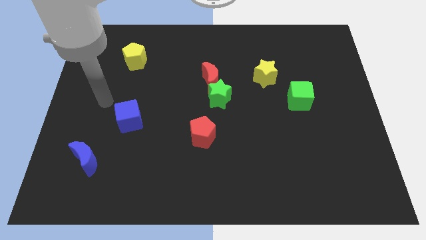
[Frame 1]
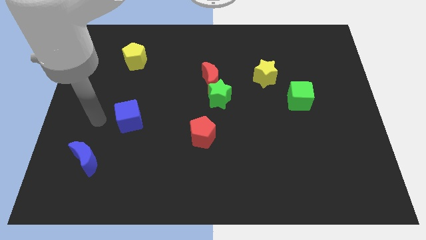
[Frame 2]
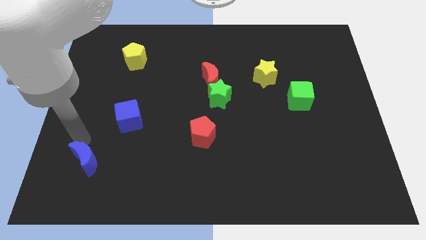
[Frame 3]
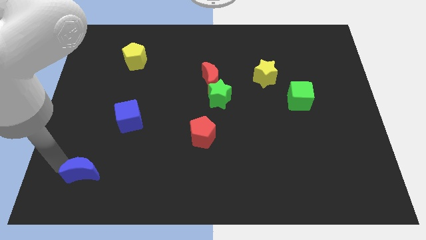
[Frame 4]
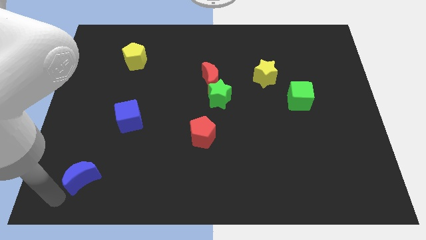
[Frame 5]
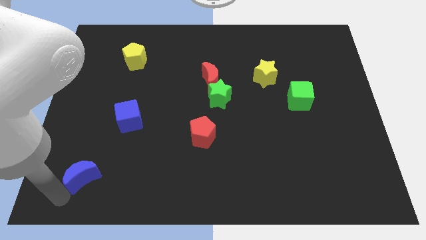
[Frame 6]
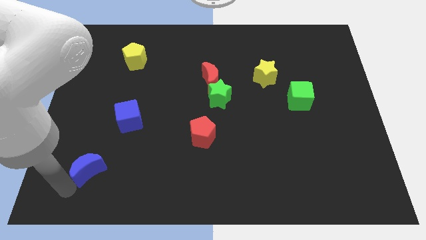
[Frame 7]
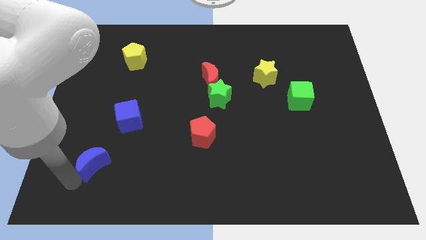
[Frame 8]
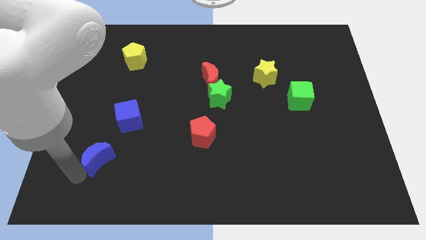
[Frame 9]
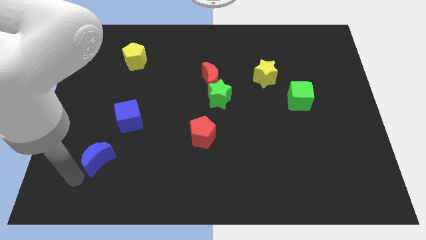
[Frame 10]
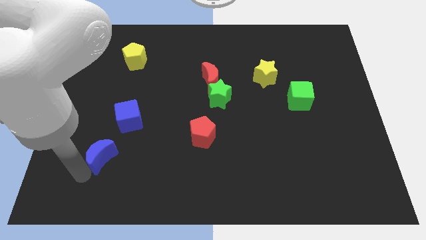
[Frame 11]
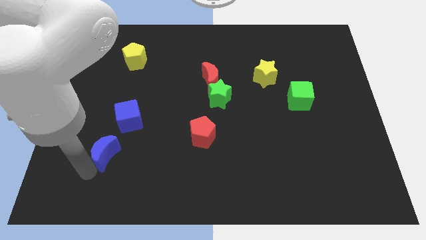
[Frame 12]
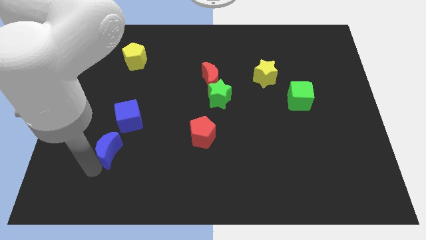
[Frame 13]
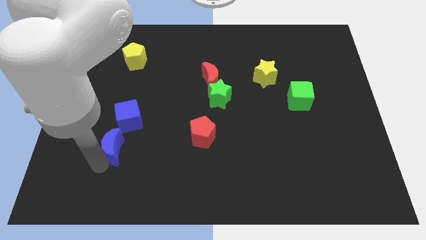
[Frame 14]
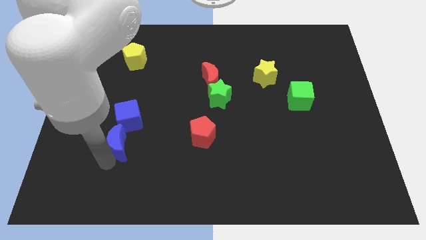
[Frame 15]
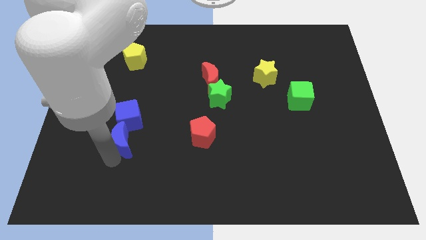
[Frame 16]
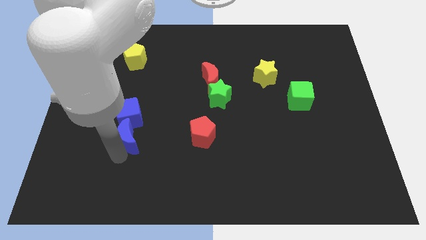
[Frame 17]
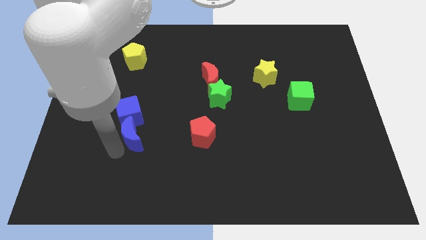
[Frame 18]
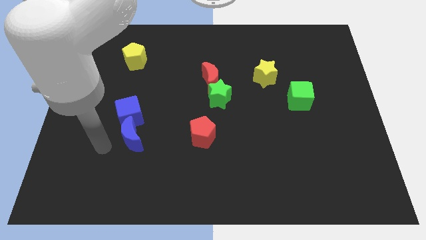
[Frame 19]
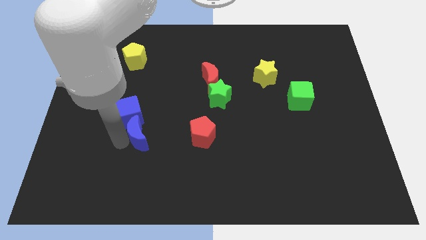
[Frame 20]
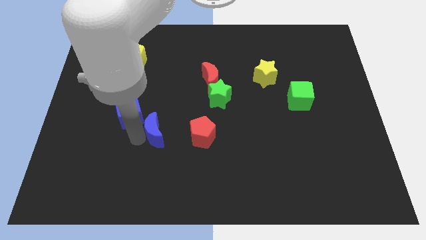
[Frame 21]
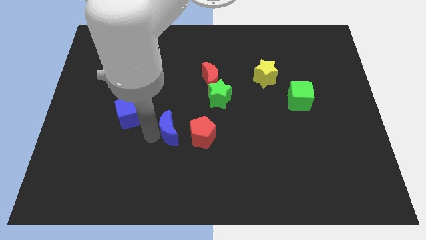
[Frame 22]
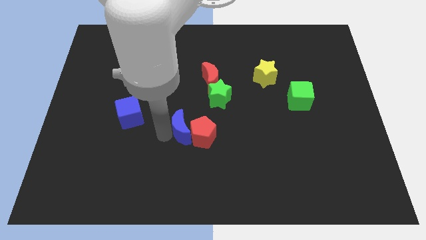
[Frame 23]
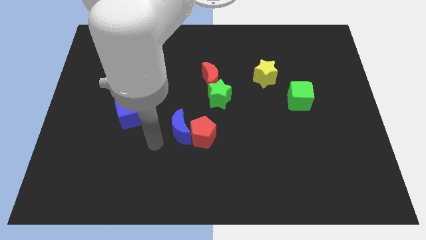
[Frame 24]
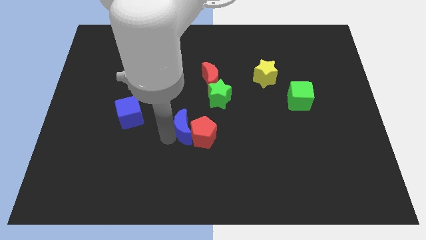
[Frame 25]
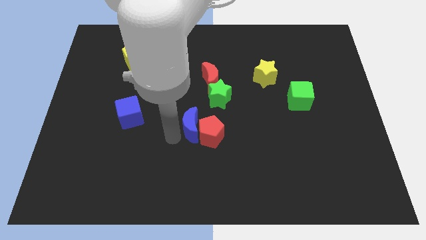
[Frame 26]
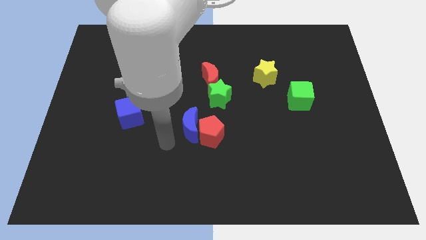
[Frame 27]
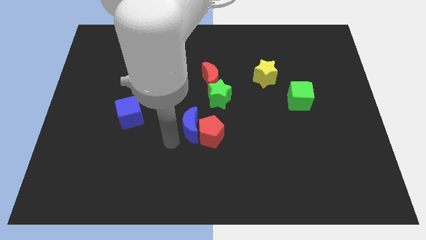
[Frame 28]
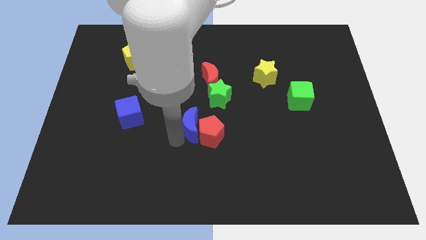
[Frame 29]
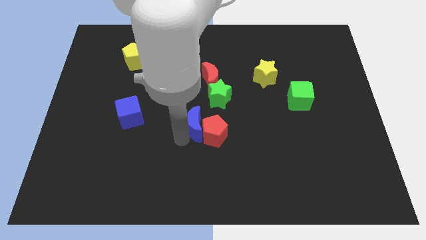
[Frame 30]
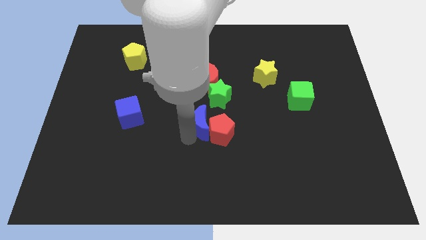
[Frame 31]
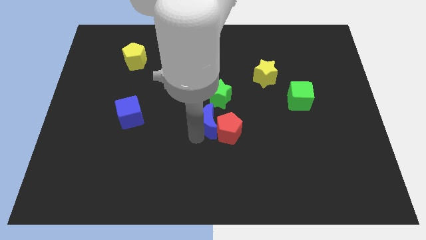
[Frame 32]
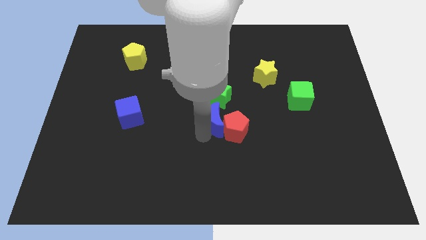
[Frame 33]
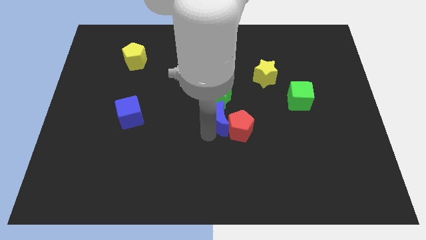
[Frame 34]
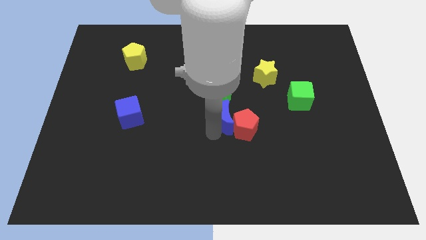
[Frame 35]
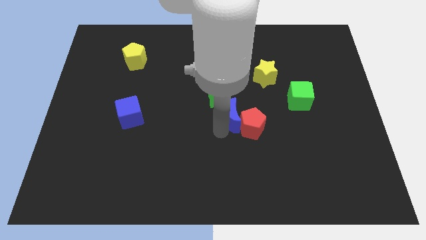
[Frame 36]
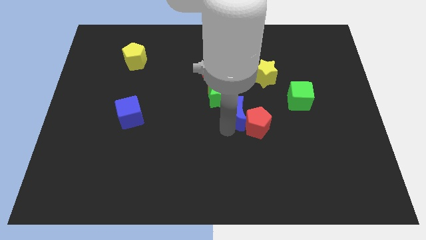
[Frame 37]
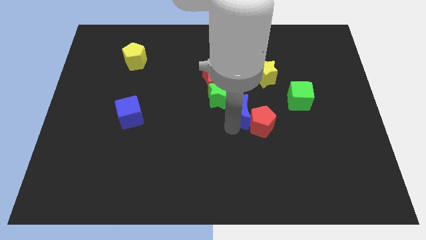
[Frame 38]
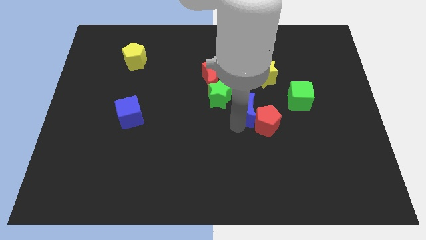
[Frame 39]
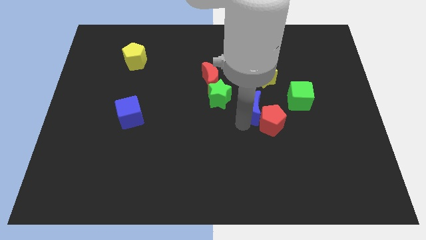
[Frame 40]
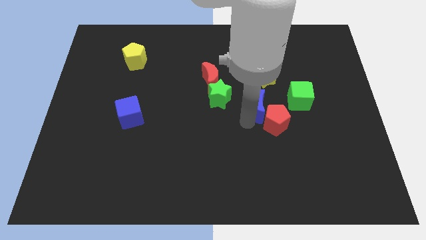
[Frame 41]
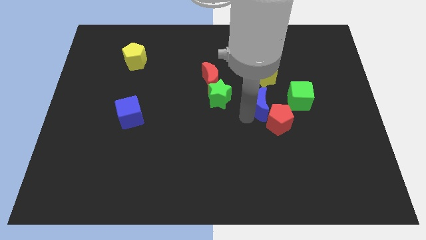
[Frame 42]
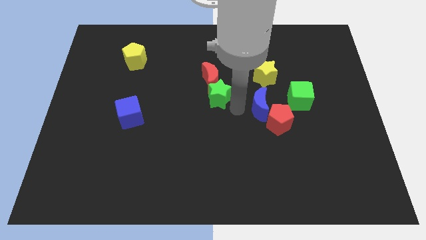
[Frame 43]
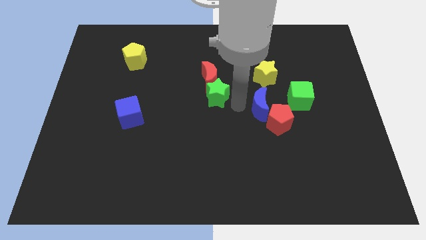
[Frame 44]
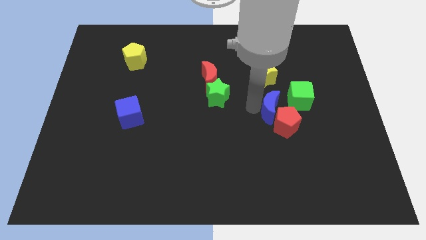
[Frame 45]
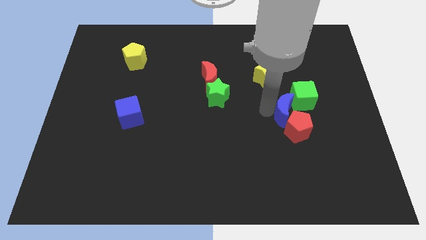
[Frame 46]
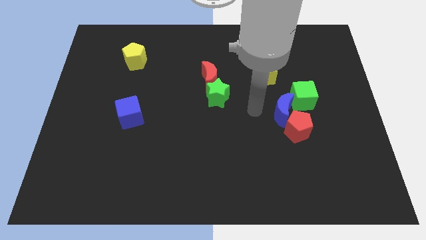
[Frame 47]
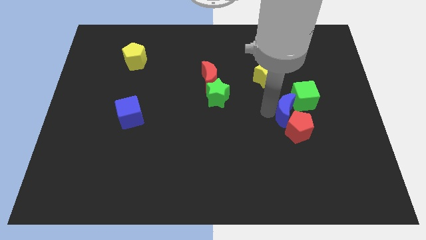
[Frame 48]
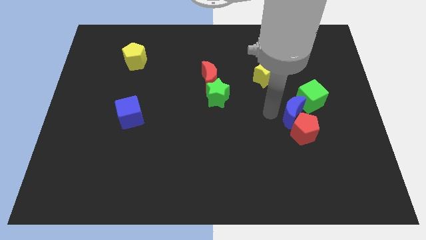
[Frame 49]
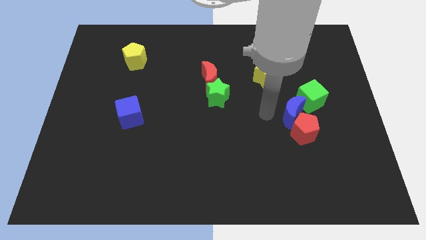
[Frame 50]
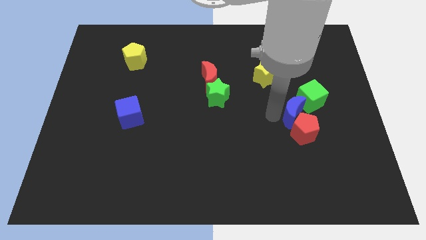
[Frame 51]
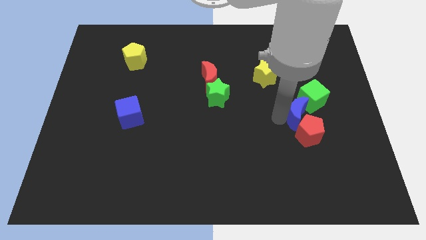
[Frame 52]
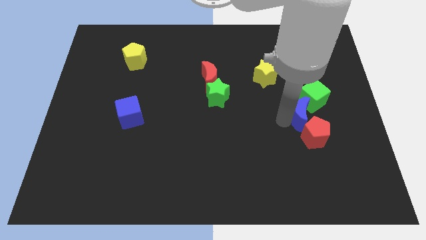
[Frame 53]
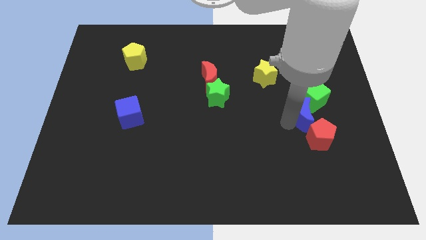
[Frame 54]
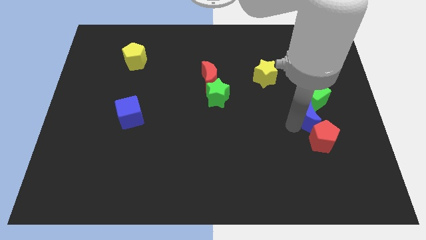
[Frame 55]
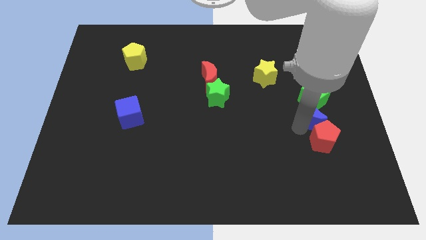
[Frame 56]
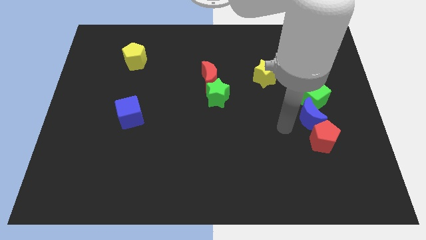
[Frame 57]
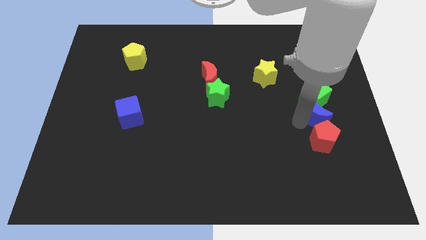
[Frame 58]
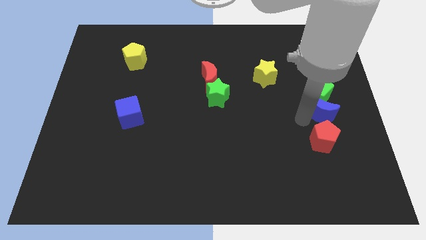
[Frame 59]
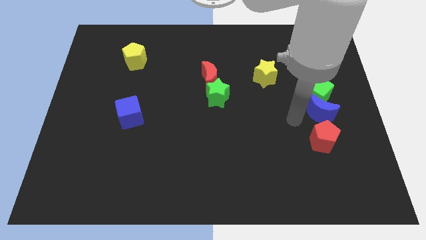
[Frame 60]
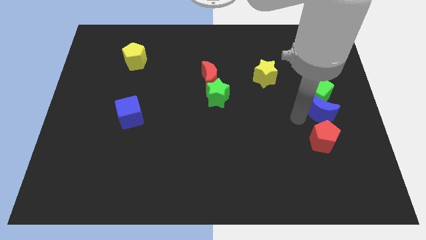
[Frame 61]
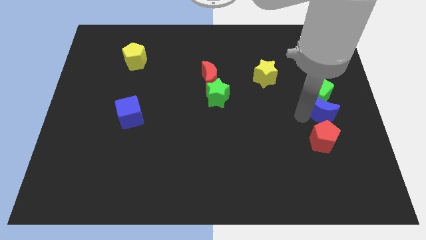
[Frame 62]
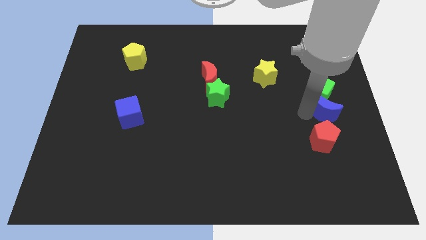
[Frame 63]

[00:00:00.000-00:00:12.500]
move the blue moon to the center right
